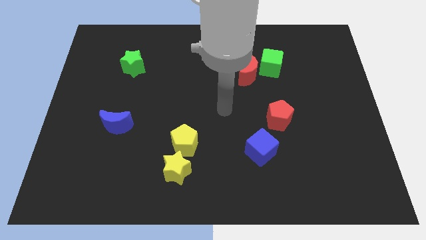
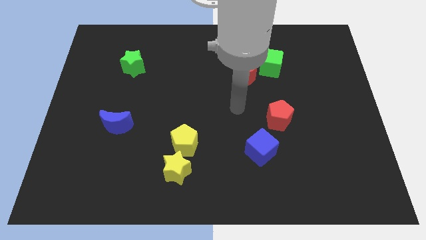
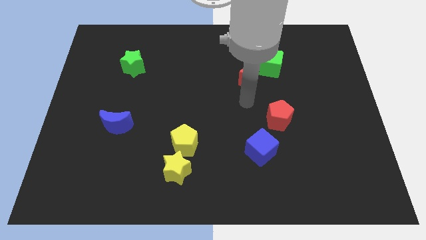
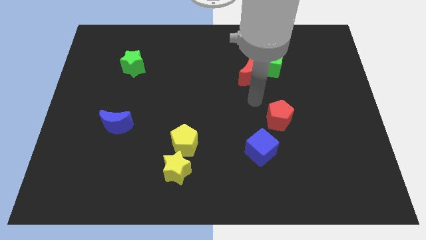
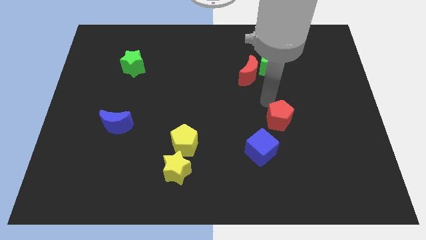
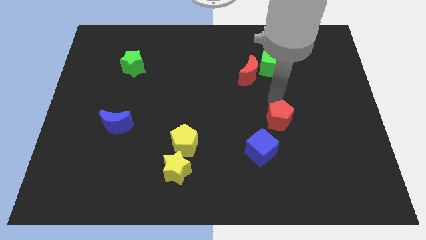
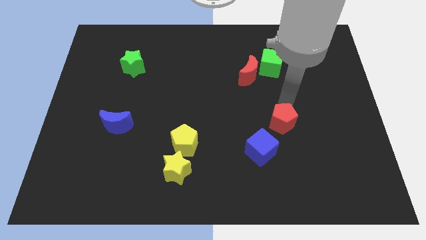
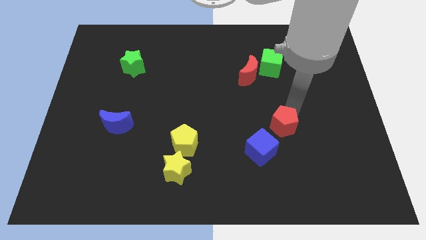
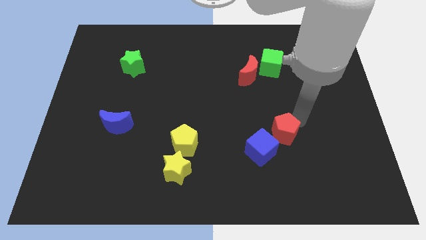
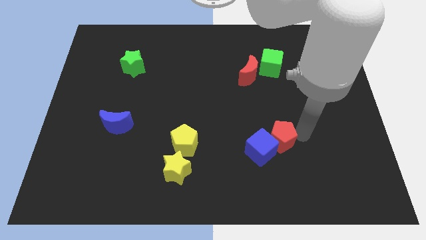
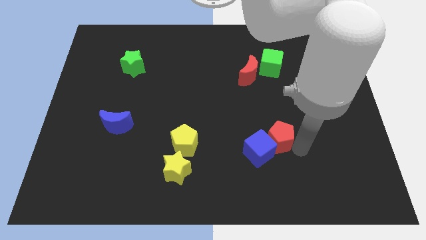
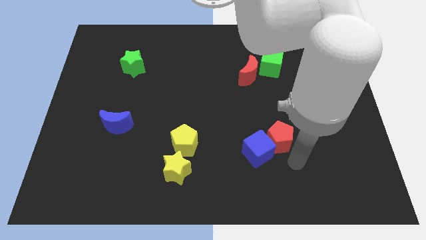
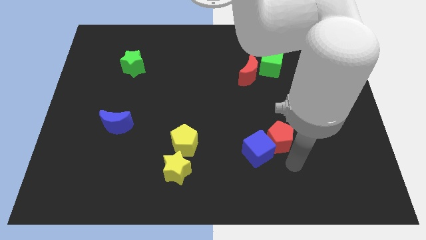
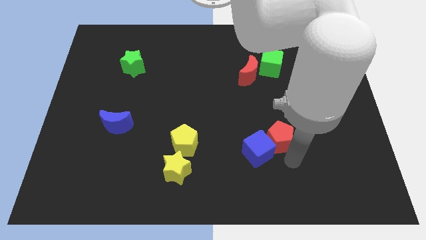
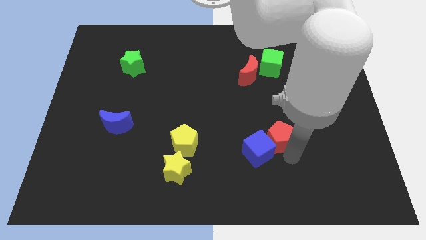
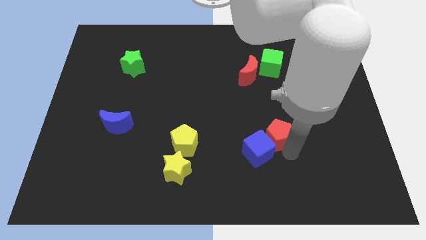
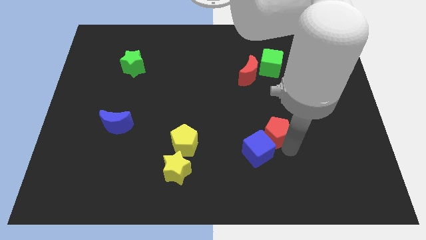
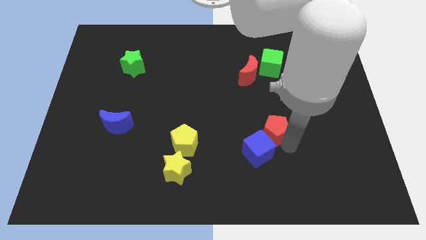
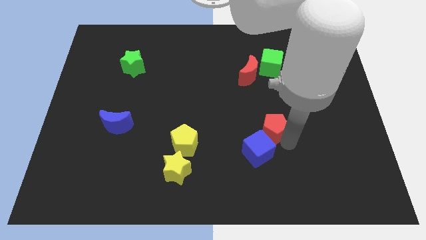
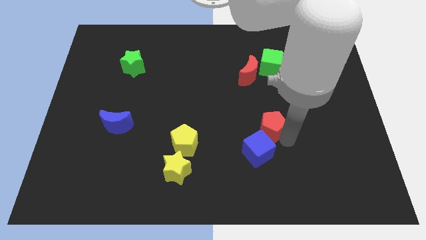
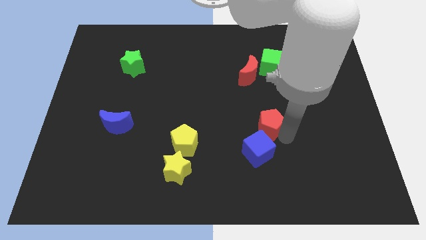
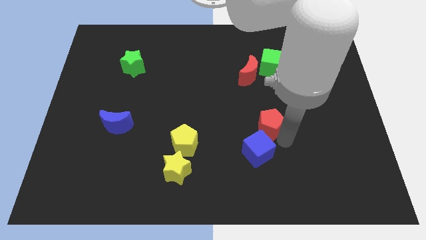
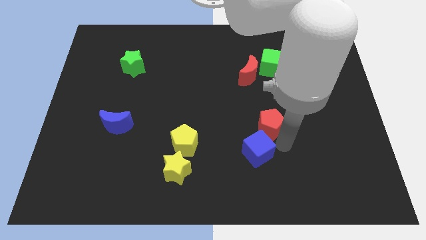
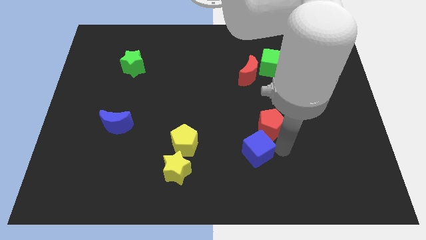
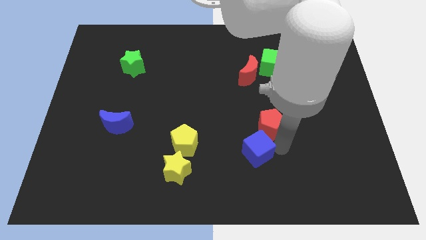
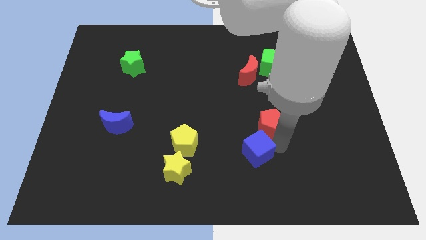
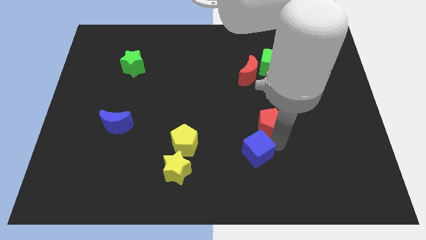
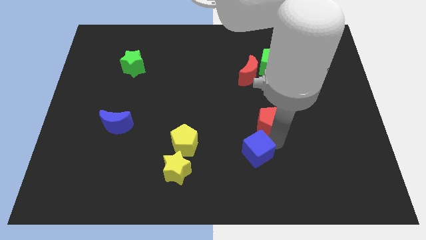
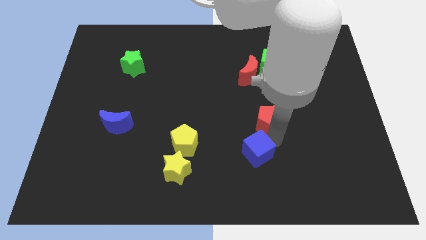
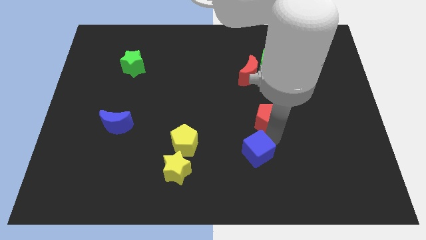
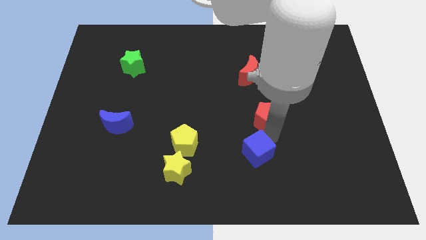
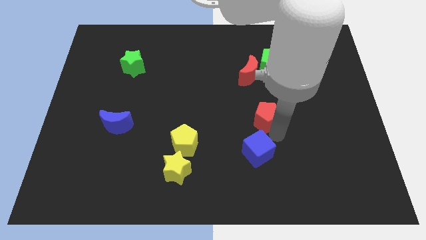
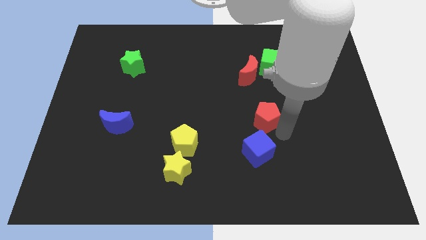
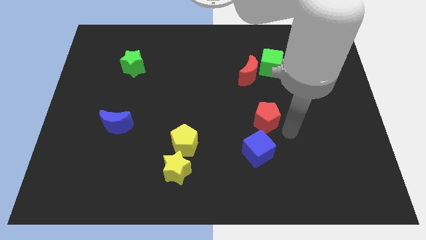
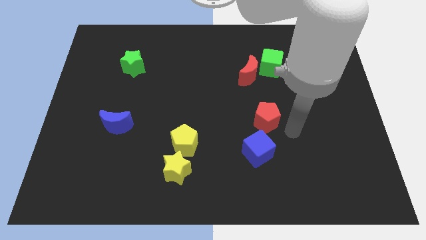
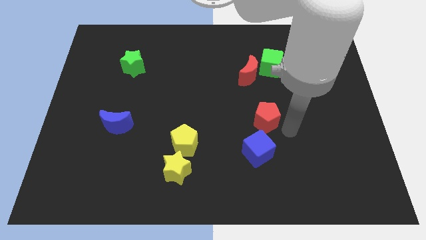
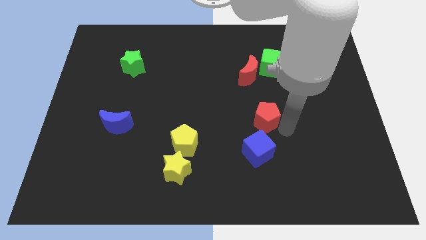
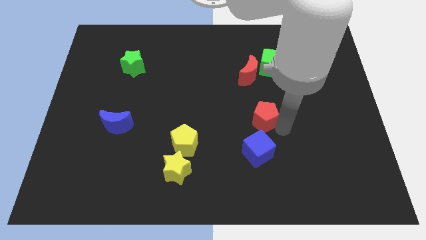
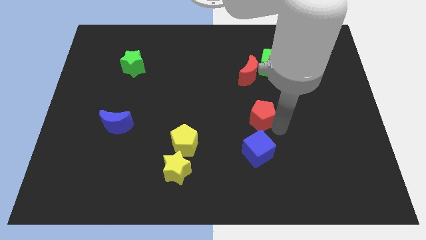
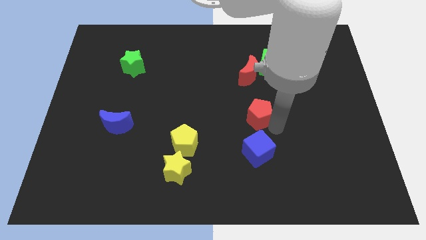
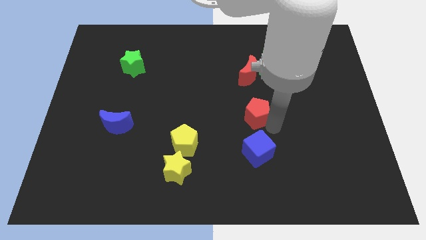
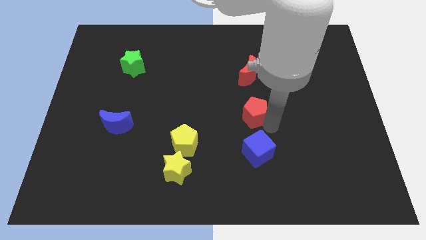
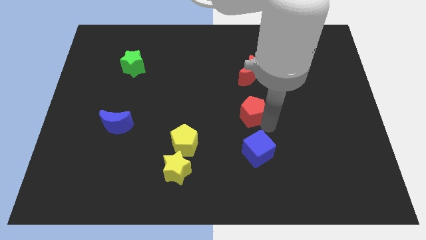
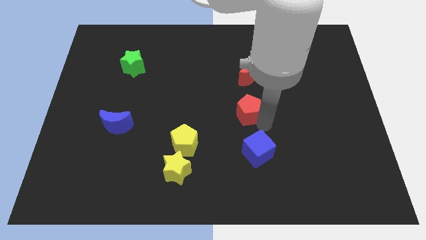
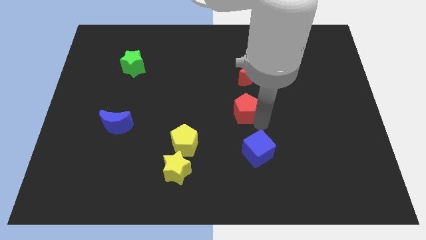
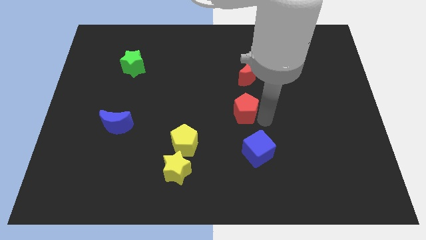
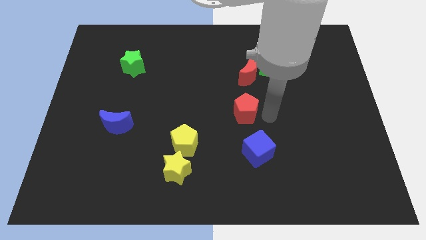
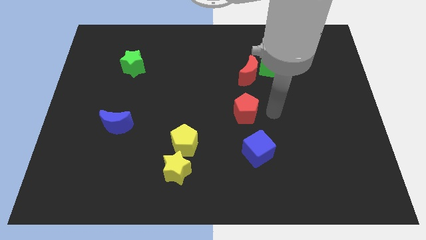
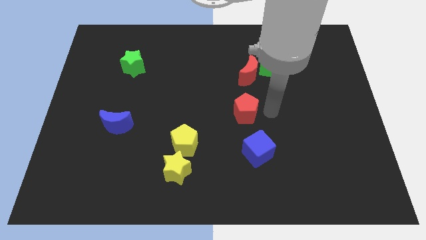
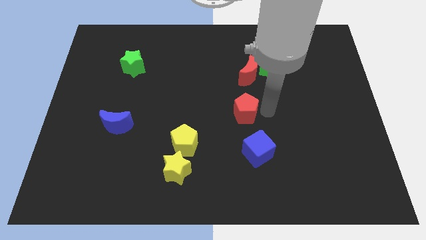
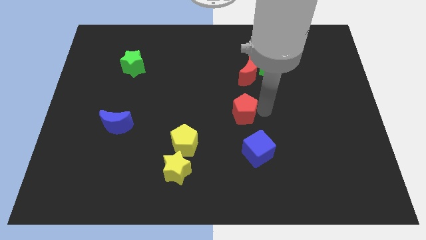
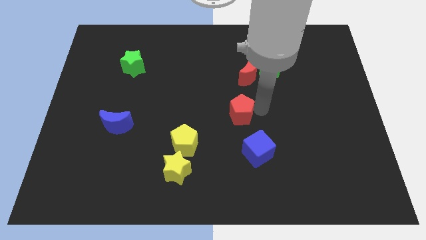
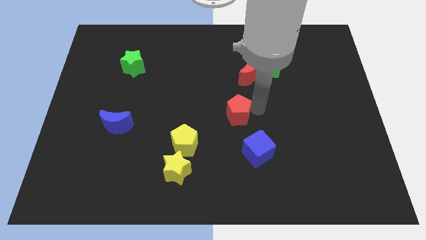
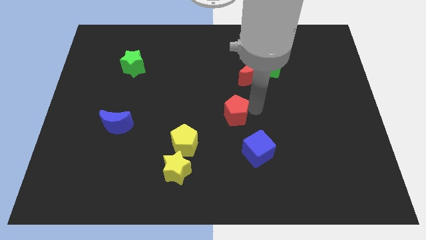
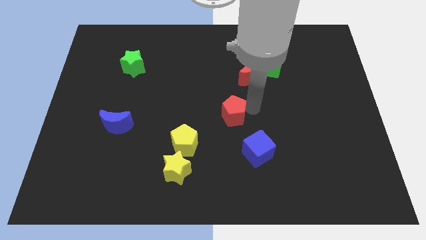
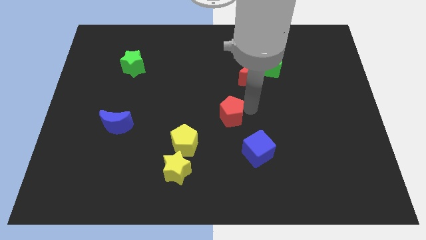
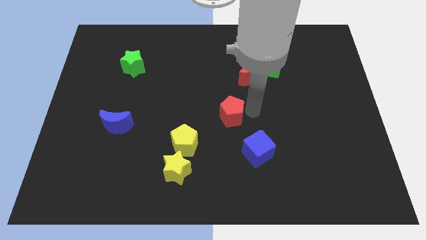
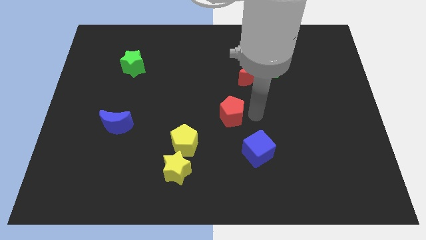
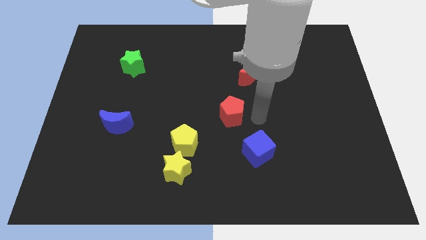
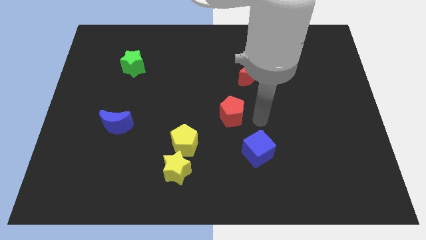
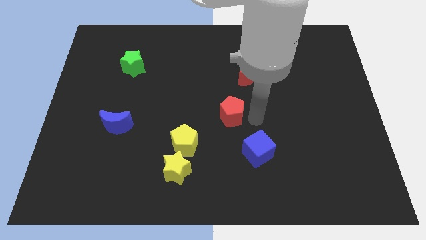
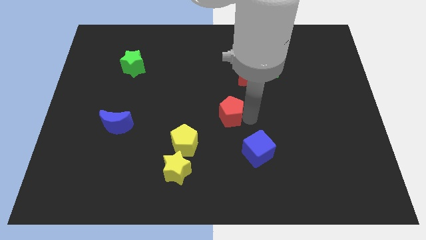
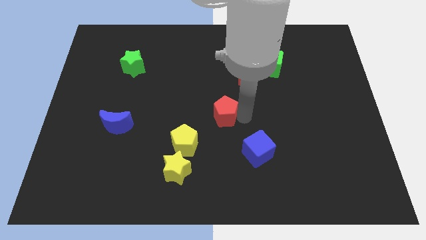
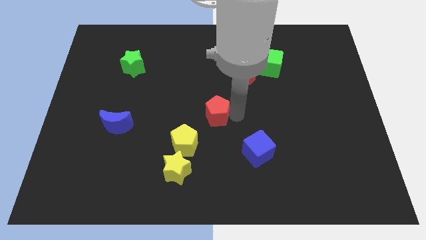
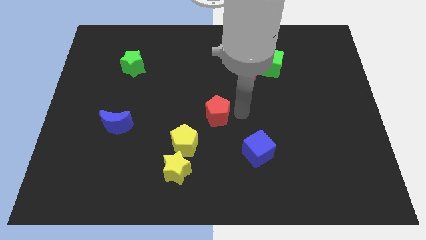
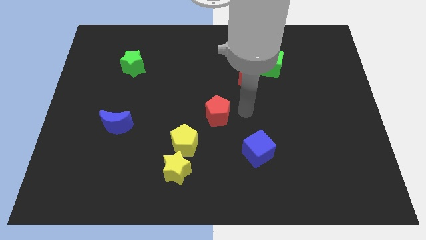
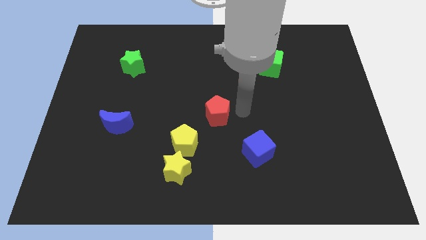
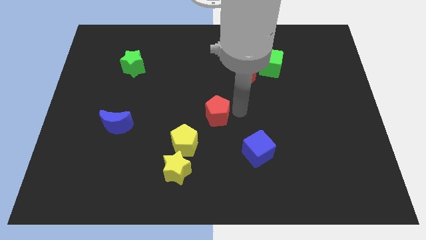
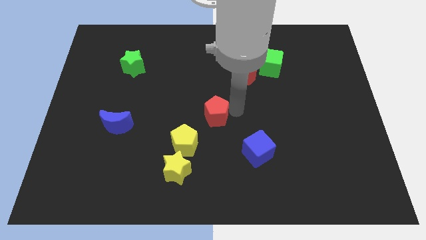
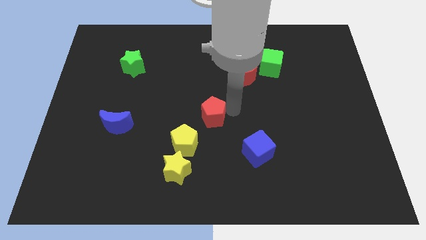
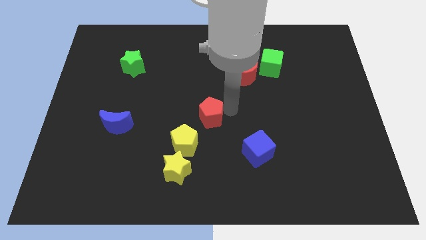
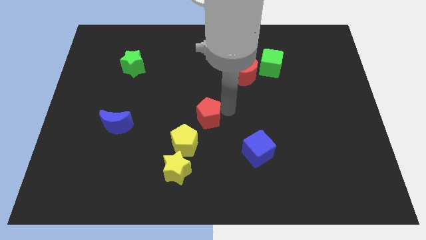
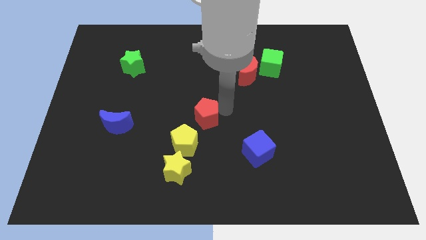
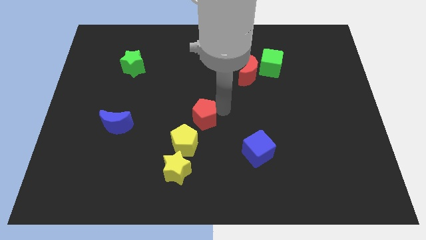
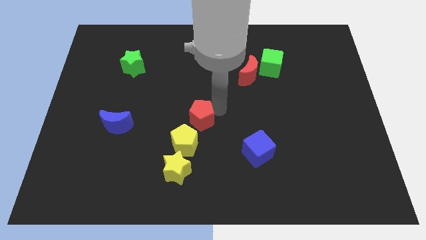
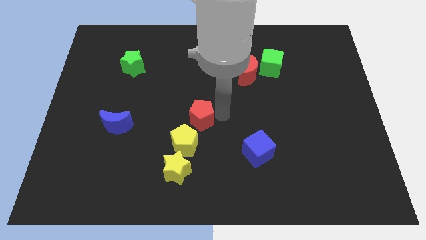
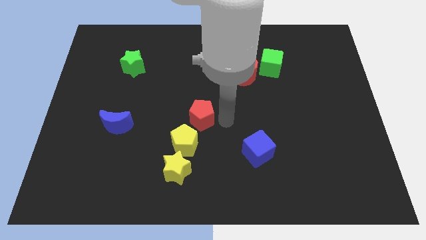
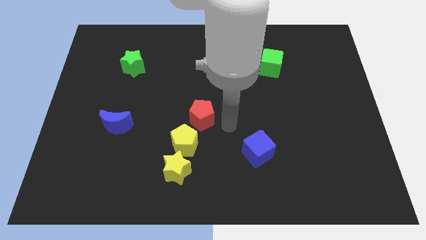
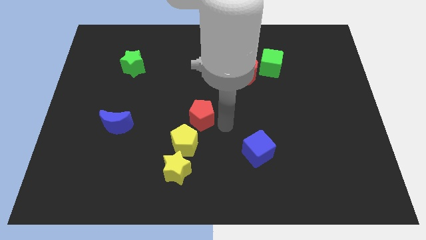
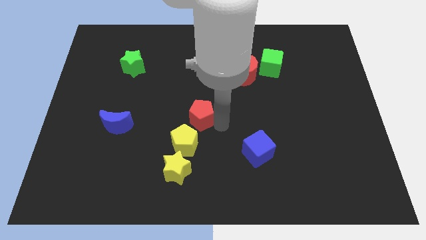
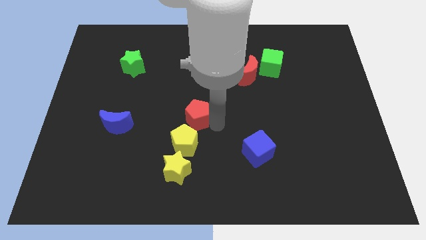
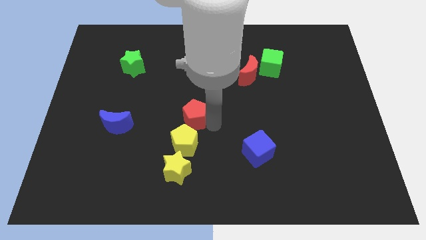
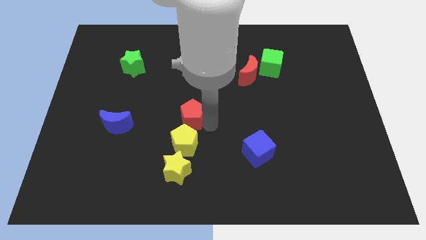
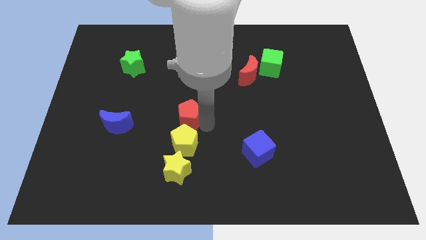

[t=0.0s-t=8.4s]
push the red pentagon left
